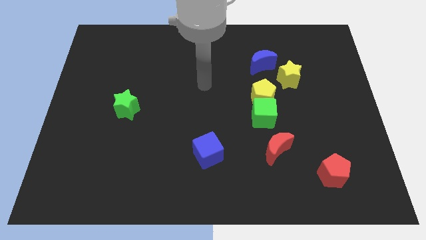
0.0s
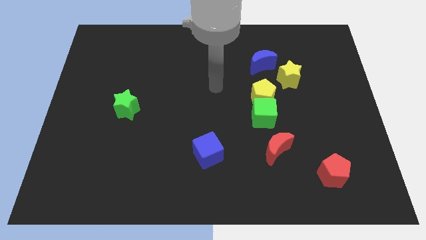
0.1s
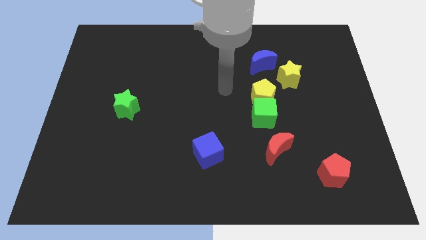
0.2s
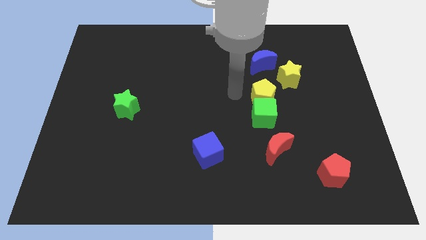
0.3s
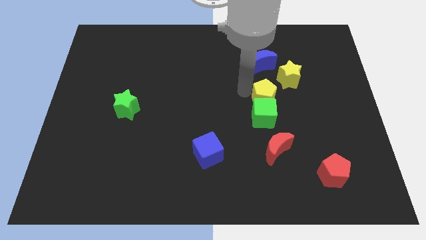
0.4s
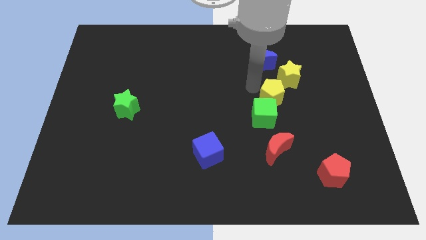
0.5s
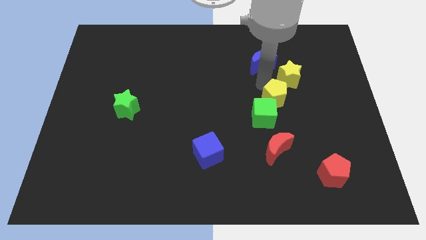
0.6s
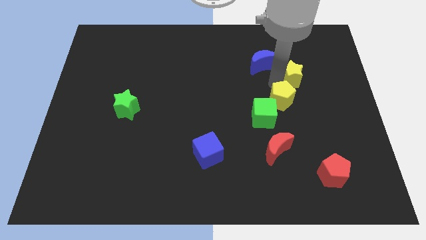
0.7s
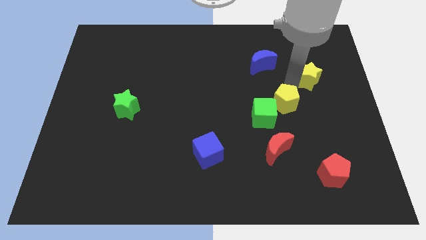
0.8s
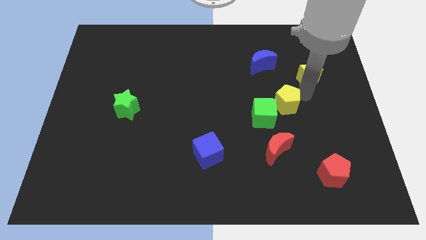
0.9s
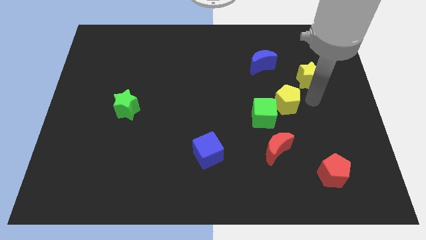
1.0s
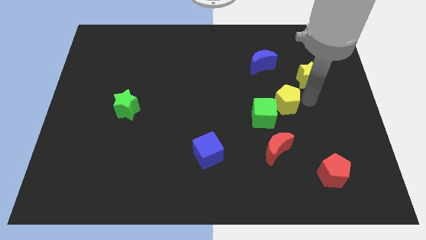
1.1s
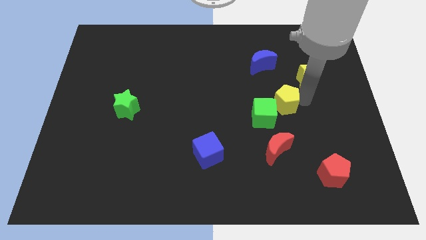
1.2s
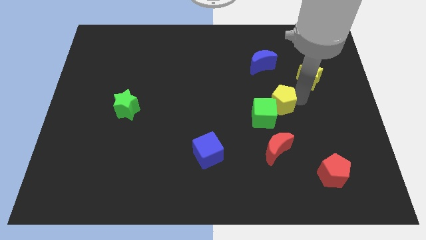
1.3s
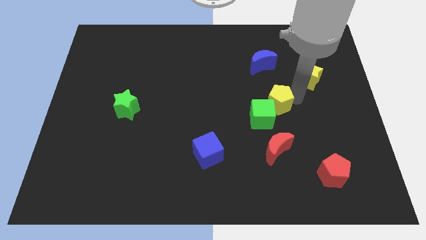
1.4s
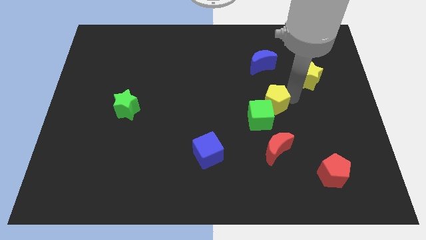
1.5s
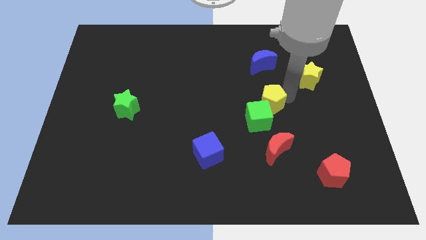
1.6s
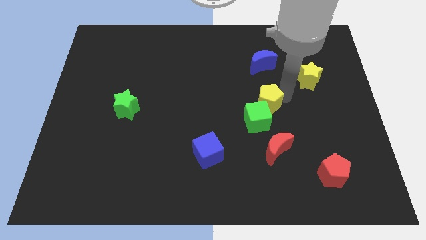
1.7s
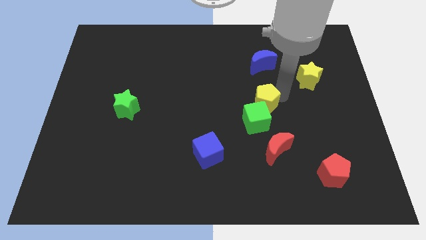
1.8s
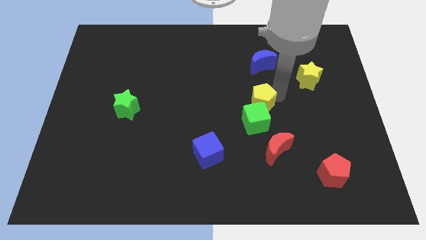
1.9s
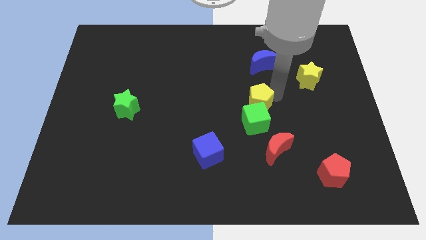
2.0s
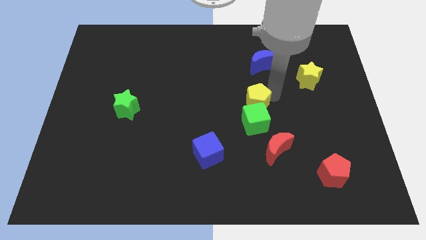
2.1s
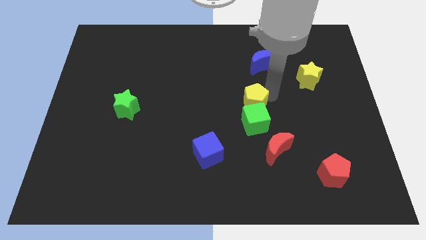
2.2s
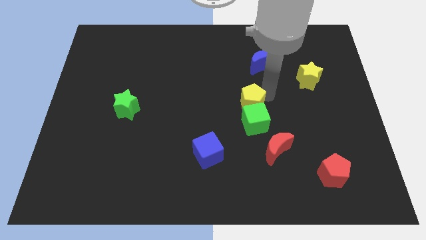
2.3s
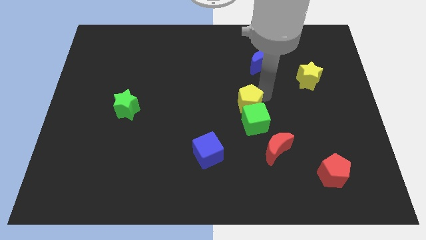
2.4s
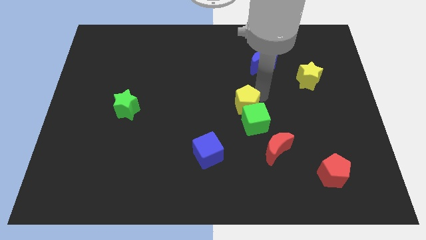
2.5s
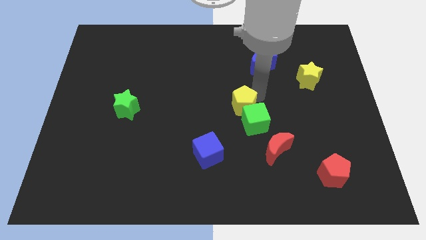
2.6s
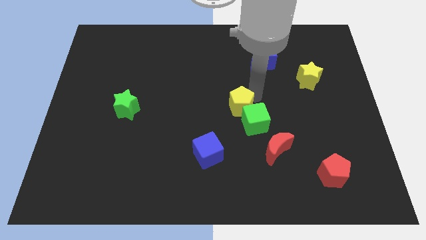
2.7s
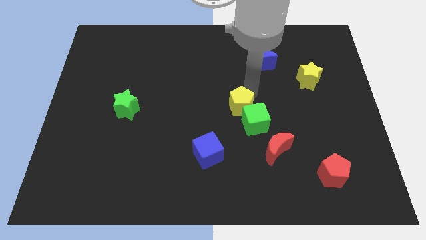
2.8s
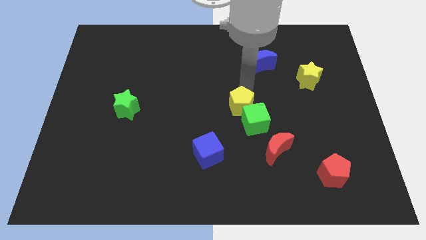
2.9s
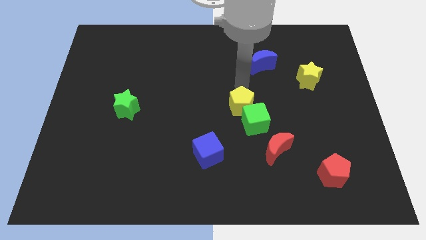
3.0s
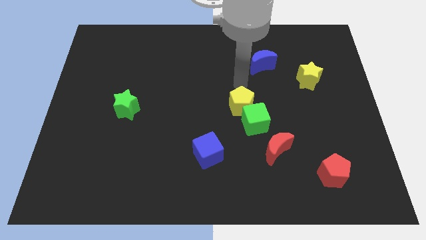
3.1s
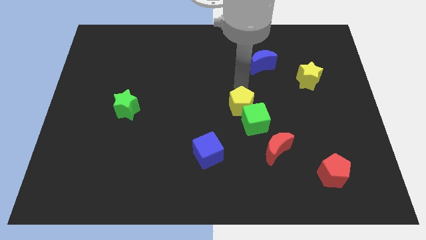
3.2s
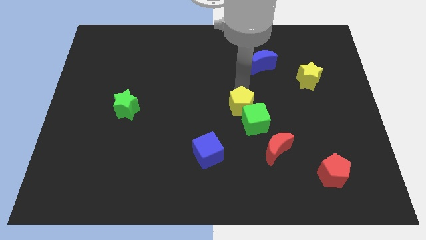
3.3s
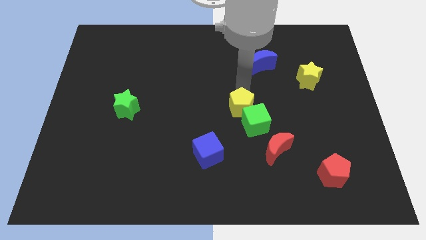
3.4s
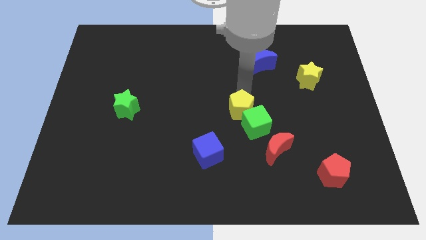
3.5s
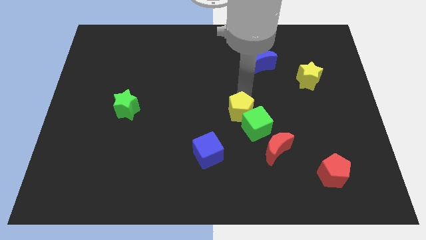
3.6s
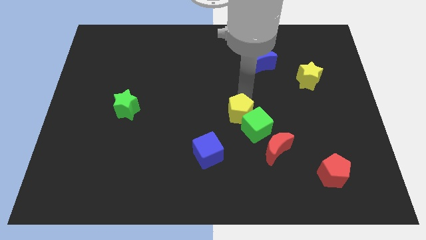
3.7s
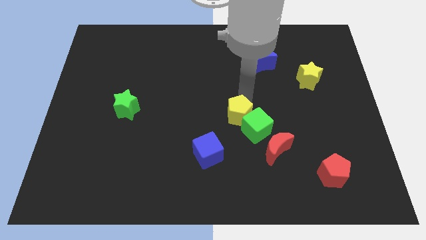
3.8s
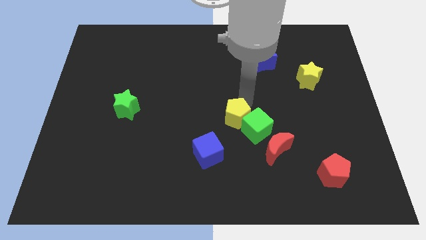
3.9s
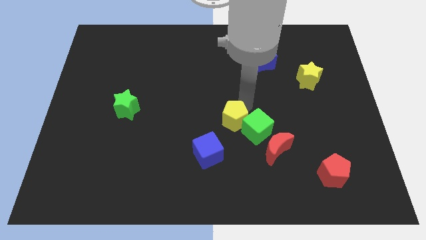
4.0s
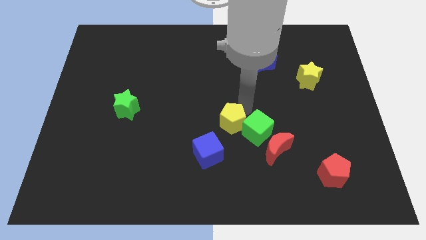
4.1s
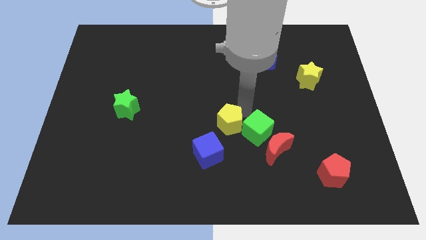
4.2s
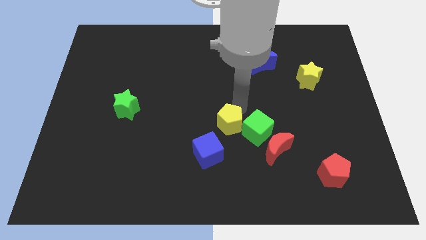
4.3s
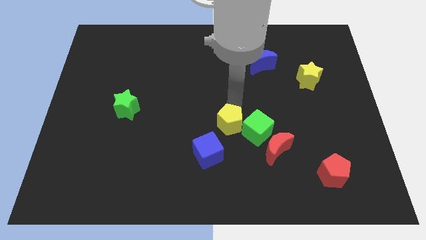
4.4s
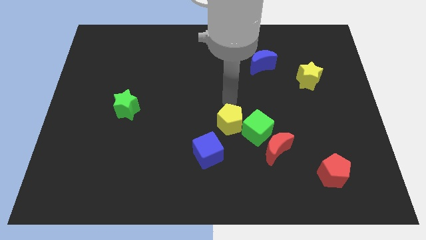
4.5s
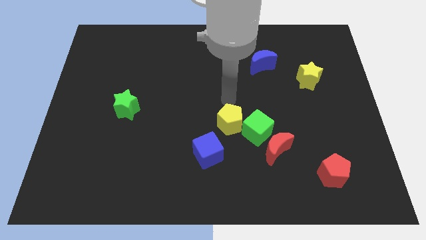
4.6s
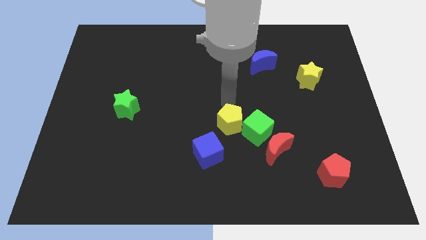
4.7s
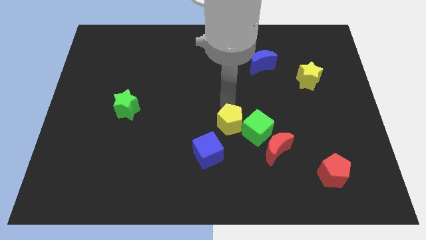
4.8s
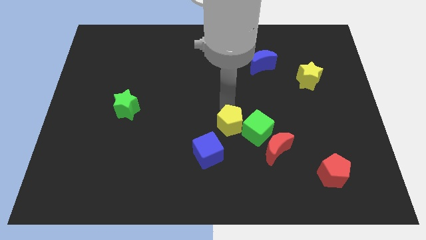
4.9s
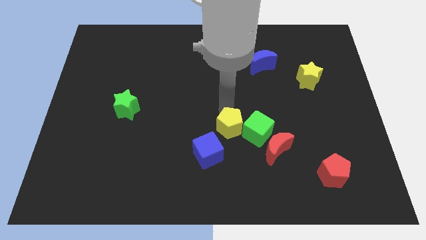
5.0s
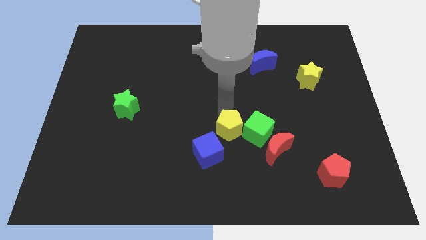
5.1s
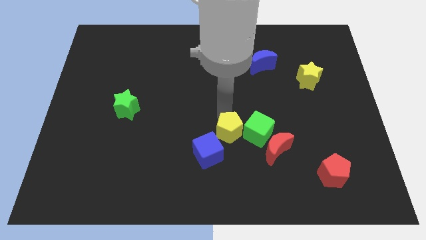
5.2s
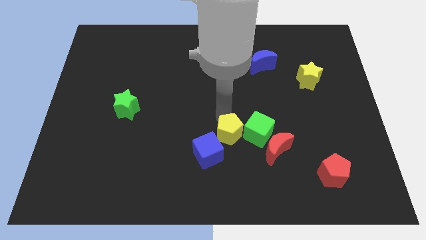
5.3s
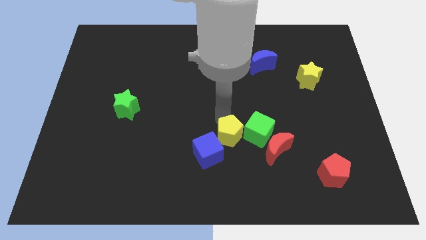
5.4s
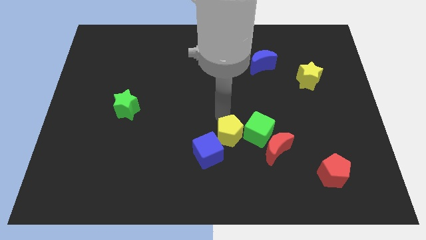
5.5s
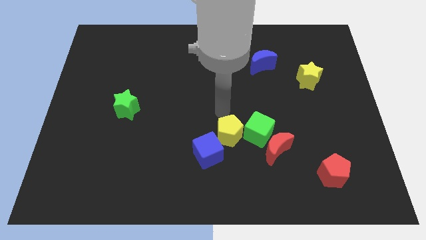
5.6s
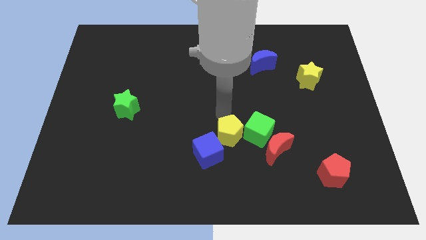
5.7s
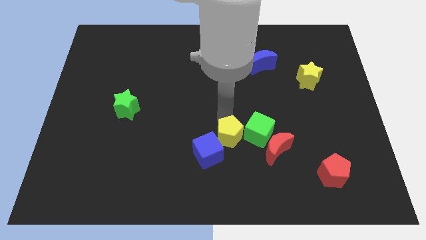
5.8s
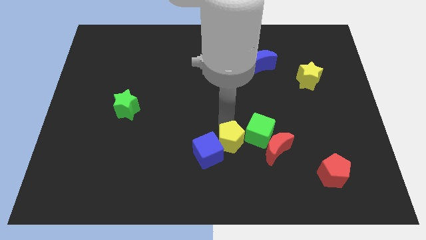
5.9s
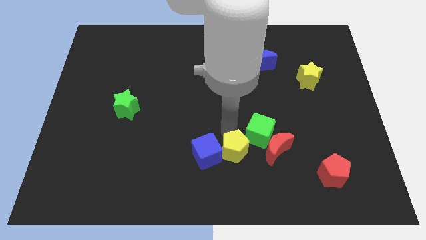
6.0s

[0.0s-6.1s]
put the yellow pentagon to the bottom right side of the blue cube

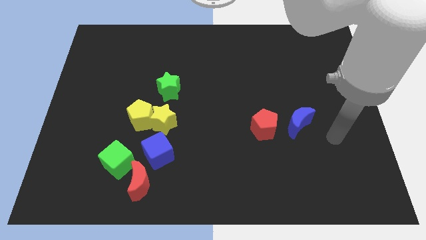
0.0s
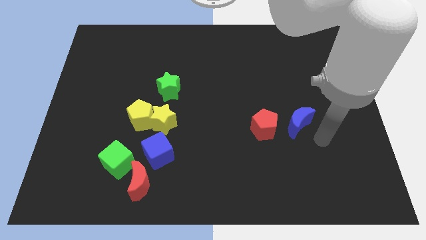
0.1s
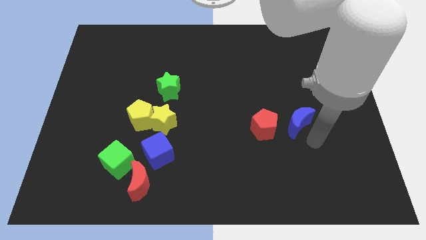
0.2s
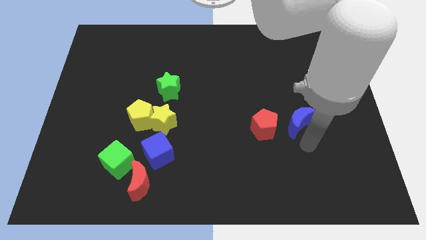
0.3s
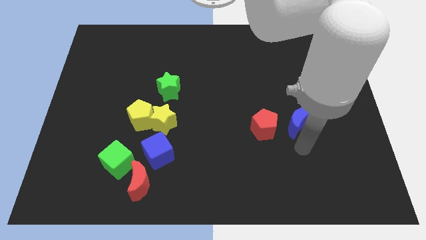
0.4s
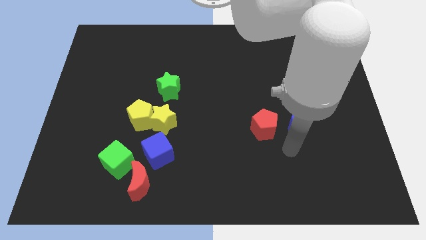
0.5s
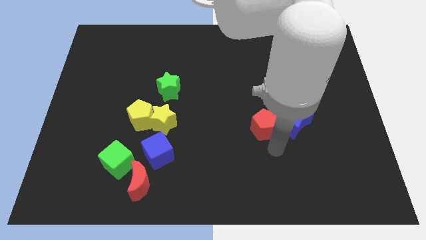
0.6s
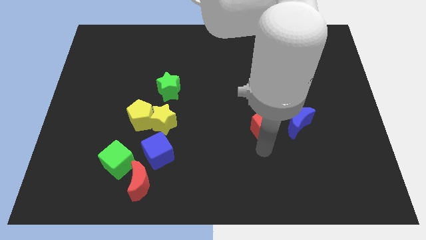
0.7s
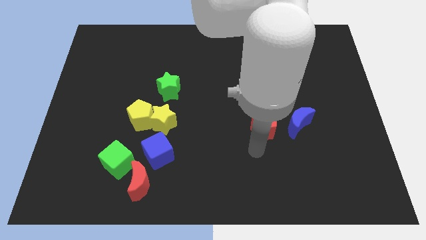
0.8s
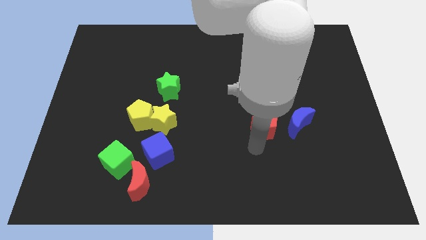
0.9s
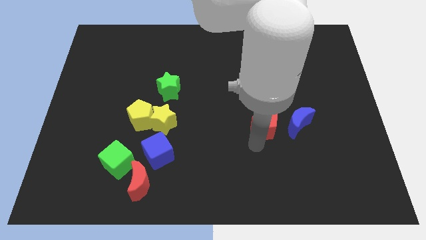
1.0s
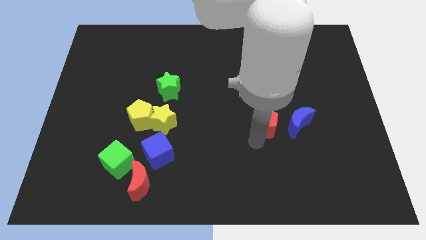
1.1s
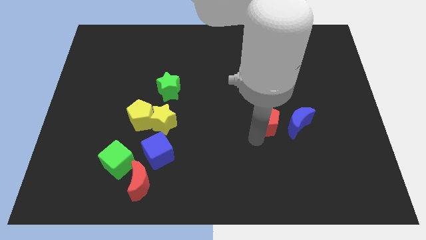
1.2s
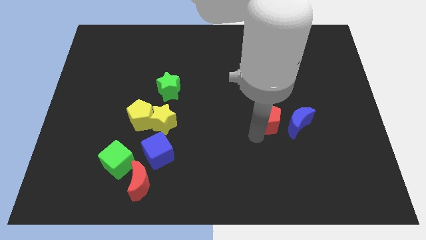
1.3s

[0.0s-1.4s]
slide the red pentagon to the top left side of the blue moon
